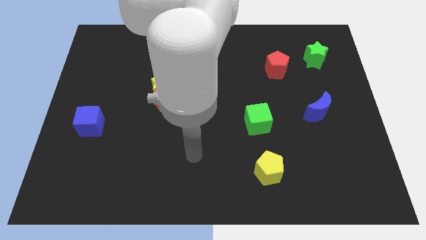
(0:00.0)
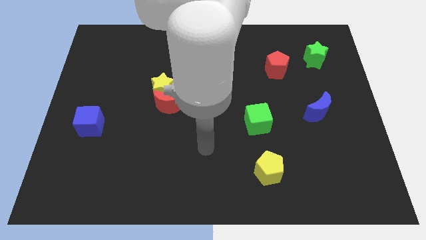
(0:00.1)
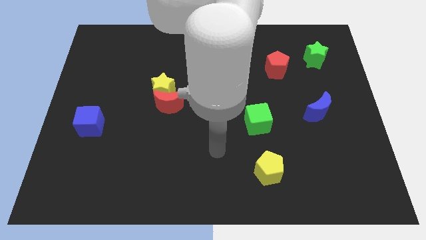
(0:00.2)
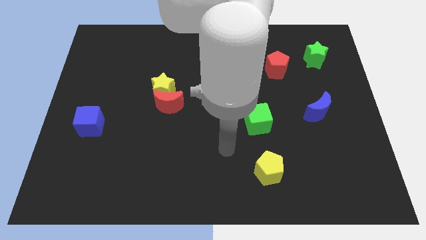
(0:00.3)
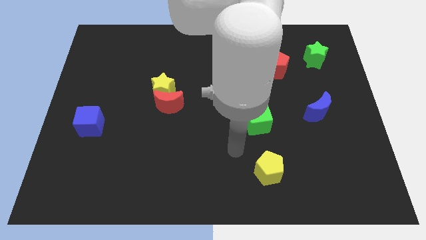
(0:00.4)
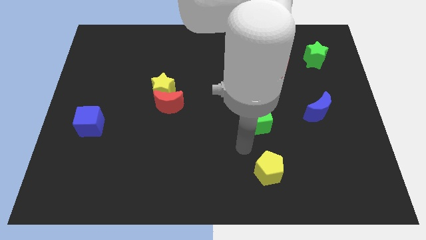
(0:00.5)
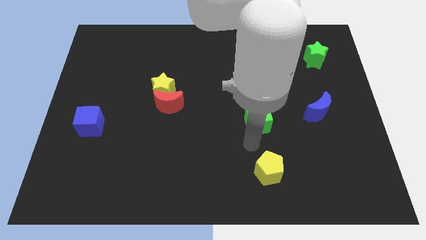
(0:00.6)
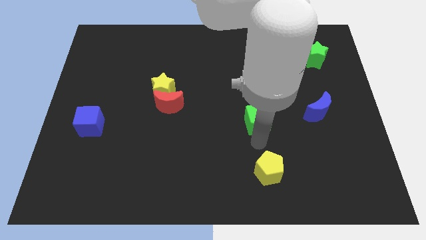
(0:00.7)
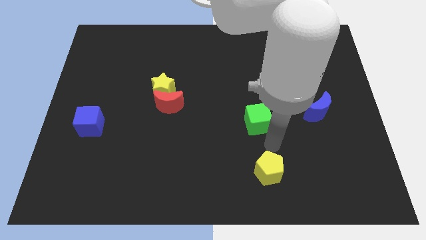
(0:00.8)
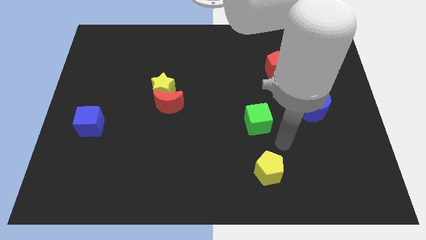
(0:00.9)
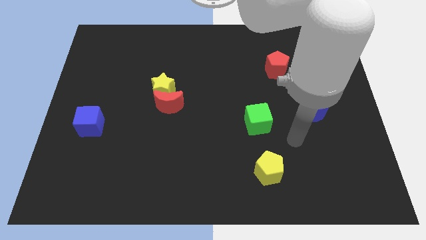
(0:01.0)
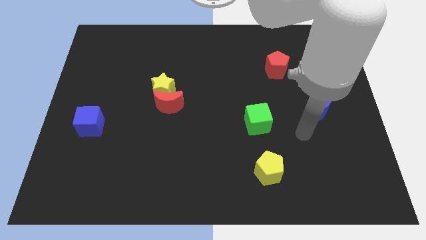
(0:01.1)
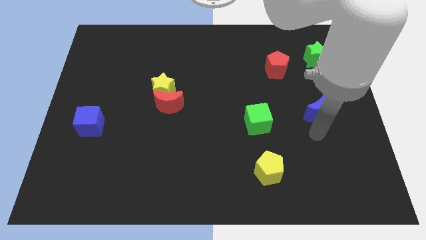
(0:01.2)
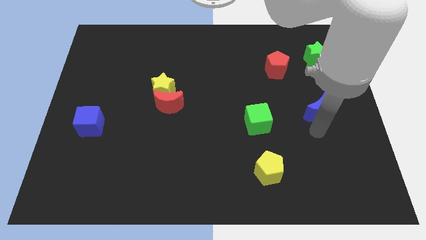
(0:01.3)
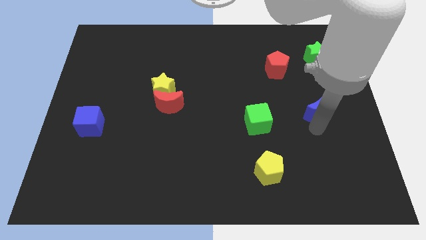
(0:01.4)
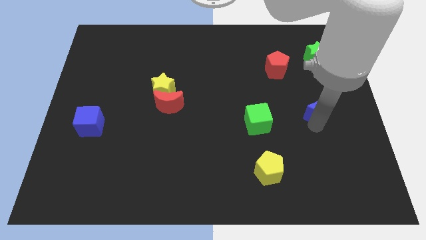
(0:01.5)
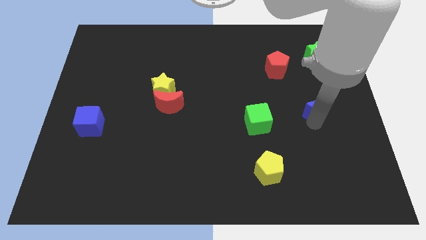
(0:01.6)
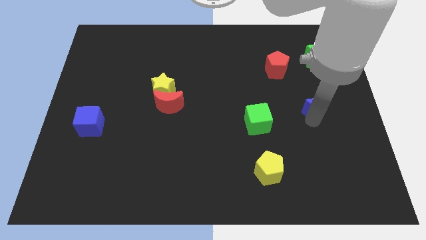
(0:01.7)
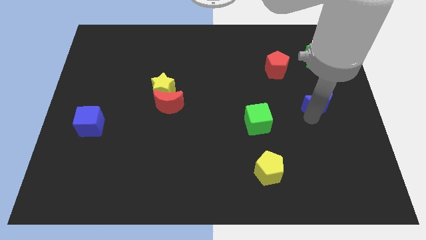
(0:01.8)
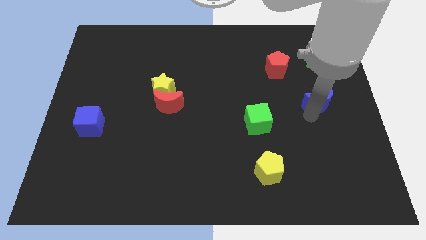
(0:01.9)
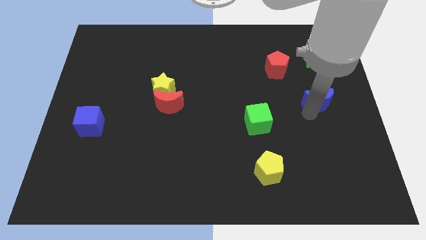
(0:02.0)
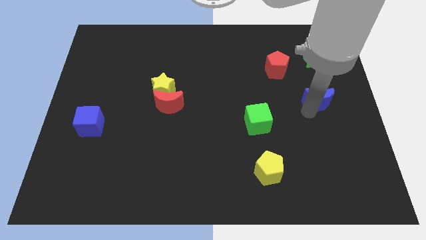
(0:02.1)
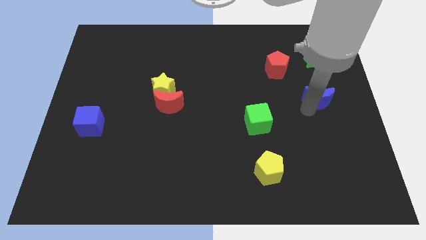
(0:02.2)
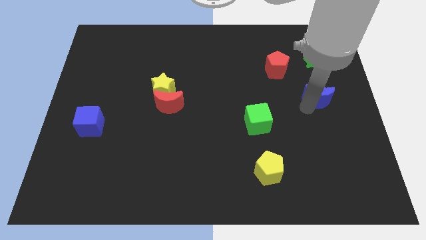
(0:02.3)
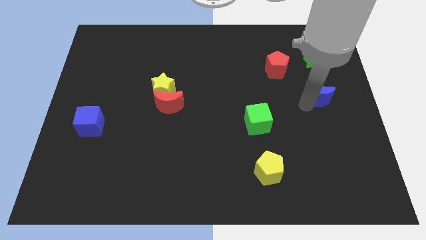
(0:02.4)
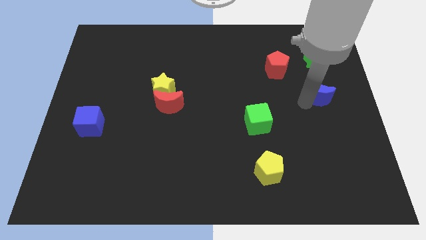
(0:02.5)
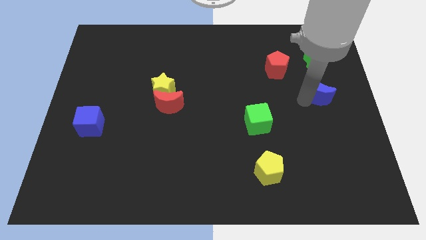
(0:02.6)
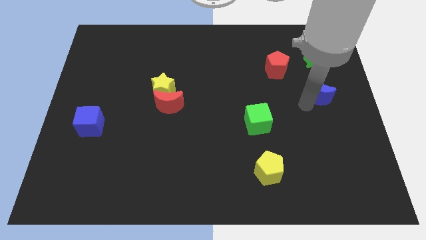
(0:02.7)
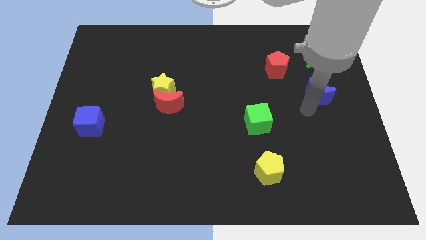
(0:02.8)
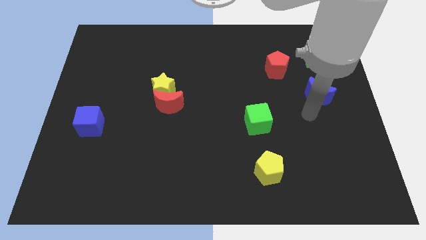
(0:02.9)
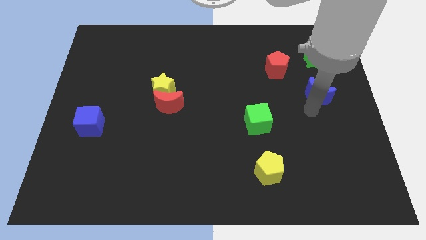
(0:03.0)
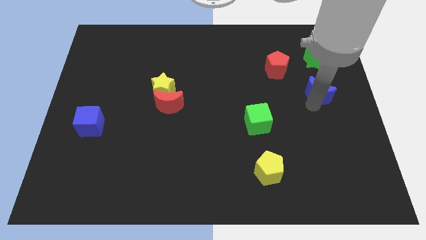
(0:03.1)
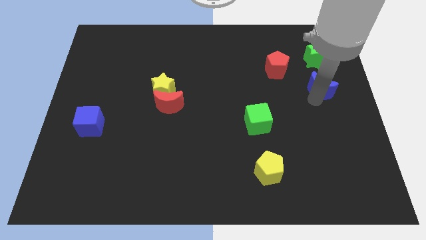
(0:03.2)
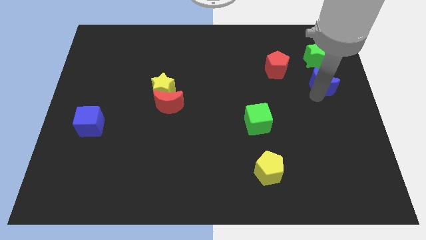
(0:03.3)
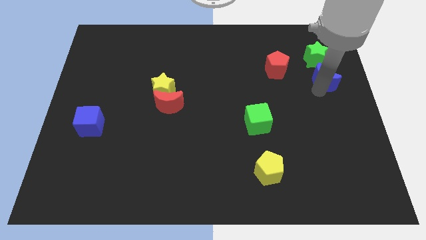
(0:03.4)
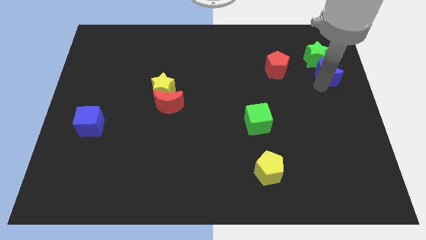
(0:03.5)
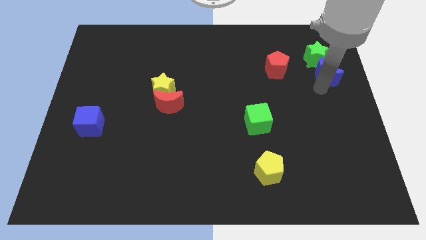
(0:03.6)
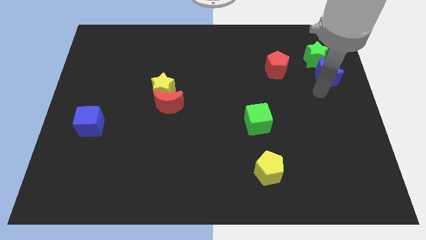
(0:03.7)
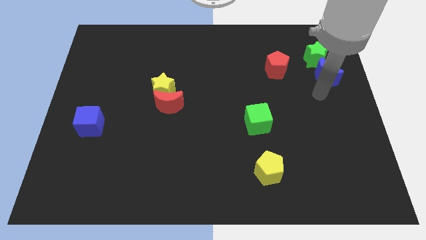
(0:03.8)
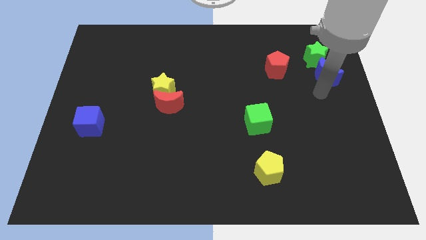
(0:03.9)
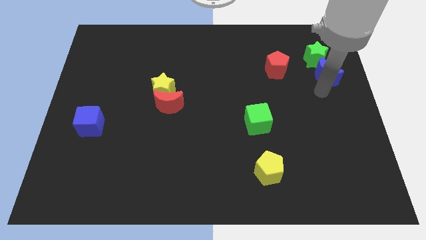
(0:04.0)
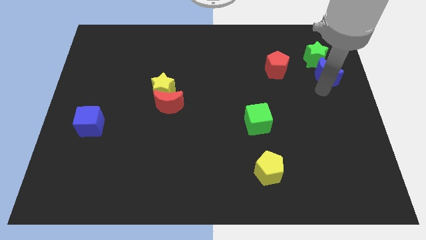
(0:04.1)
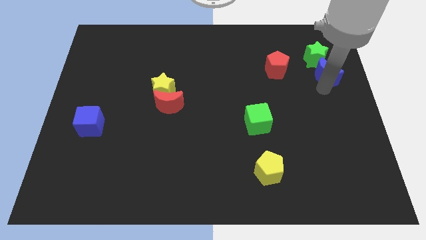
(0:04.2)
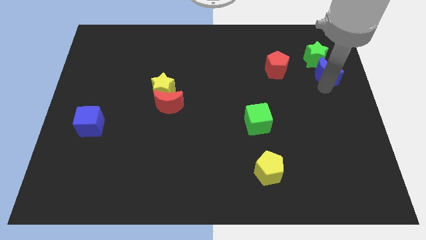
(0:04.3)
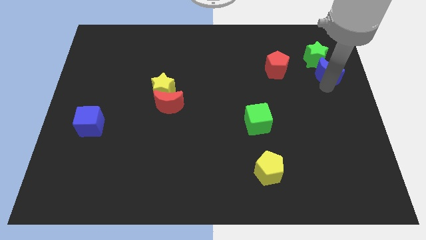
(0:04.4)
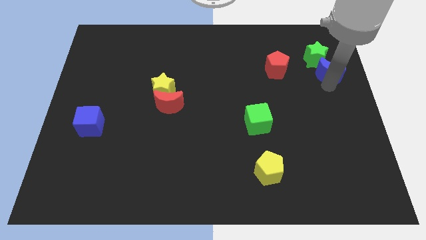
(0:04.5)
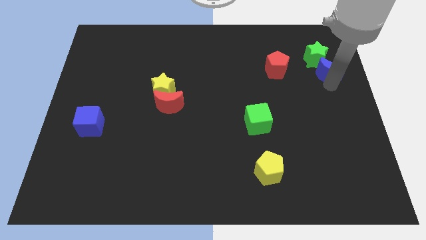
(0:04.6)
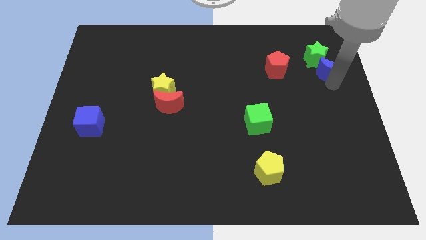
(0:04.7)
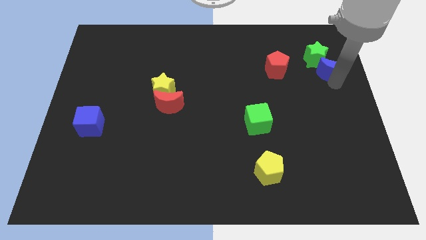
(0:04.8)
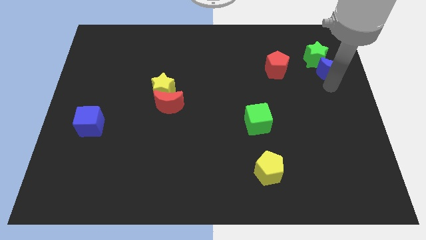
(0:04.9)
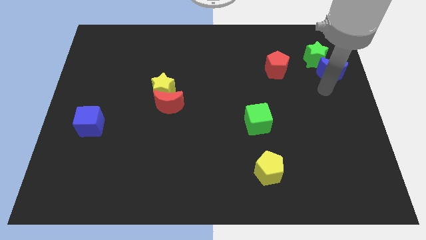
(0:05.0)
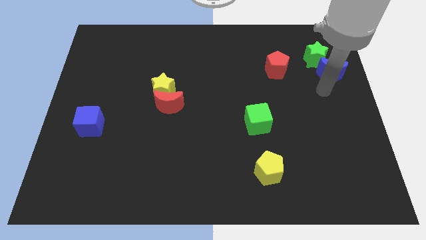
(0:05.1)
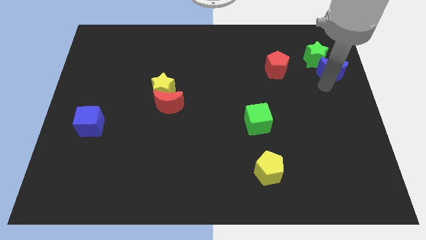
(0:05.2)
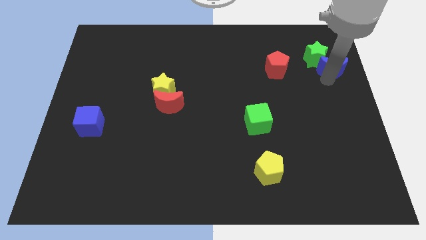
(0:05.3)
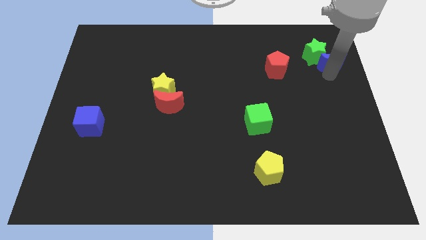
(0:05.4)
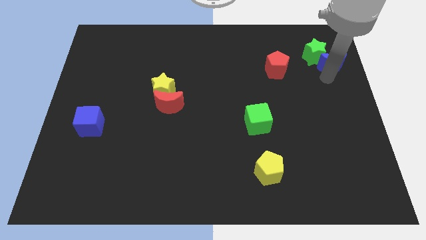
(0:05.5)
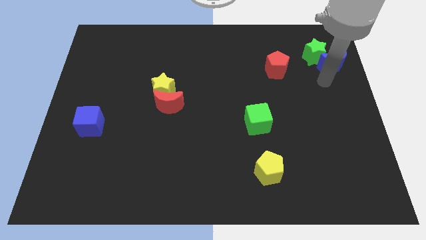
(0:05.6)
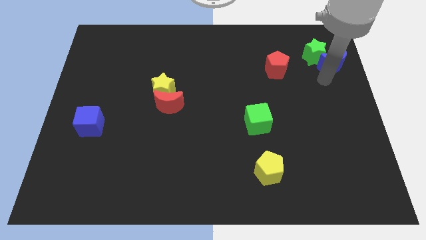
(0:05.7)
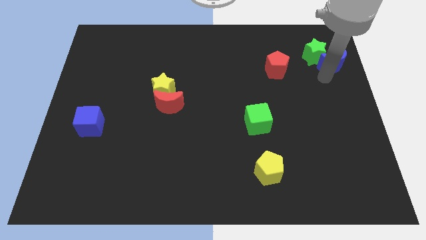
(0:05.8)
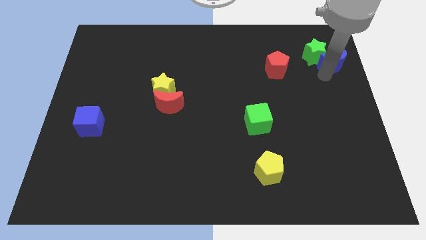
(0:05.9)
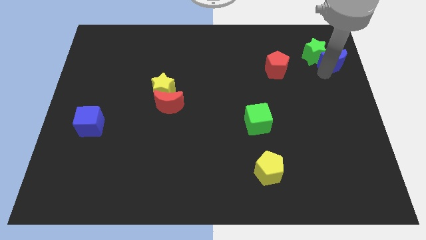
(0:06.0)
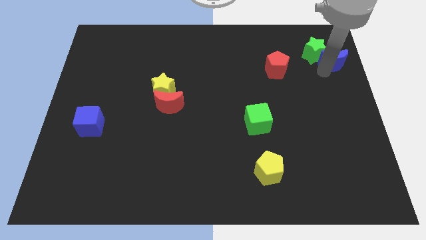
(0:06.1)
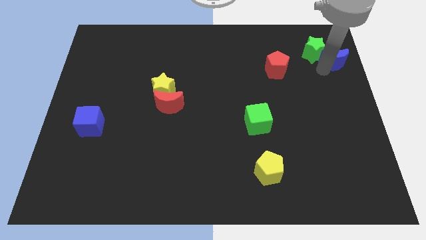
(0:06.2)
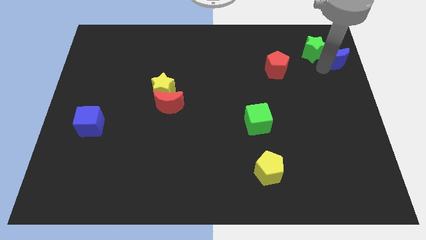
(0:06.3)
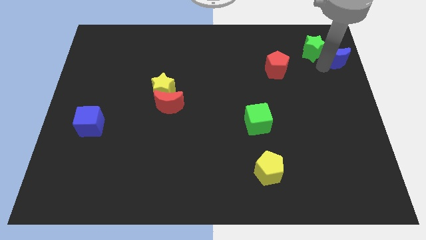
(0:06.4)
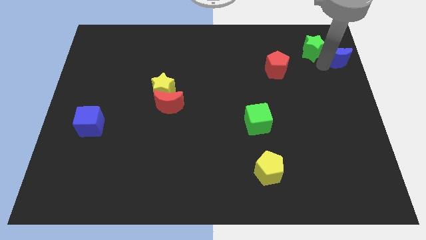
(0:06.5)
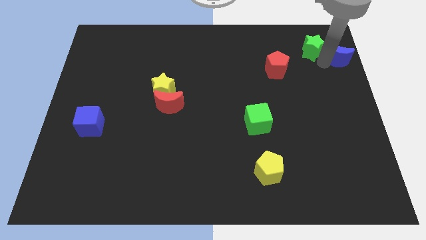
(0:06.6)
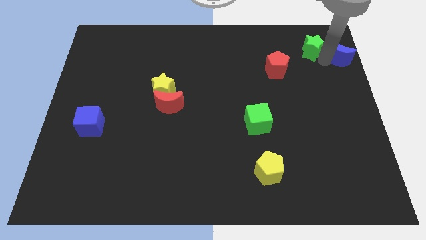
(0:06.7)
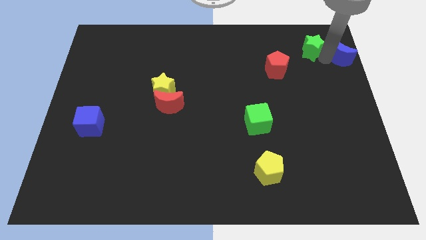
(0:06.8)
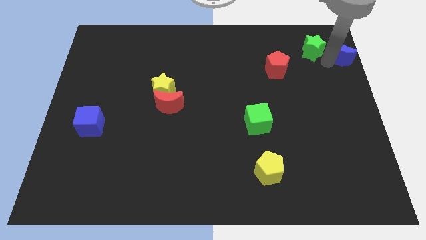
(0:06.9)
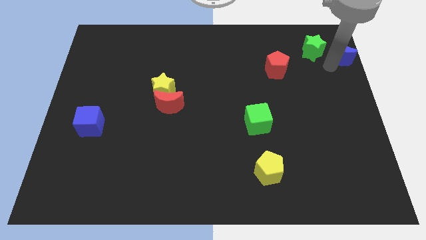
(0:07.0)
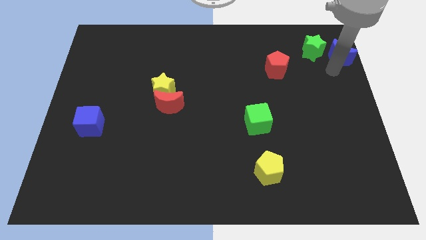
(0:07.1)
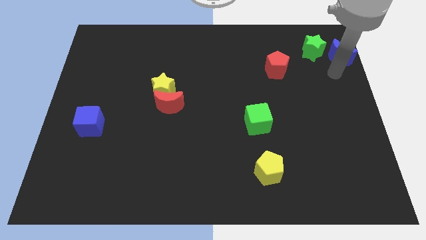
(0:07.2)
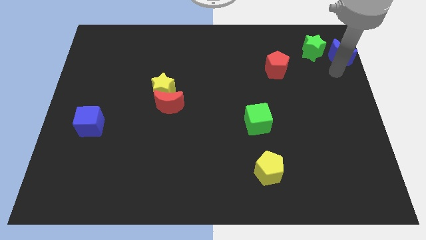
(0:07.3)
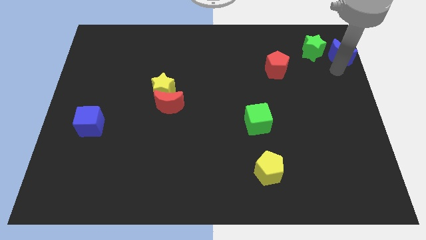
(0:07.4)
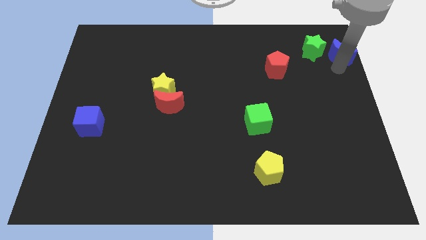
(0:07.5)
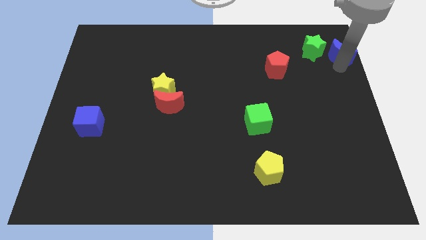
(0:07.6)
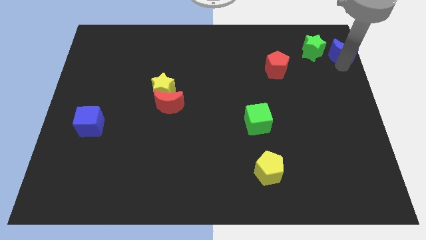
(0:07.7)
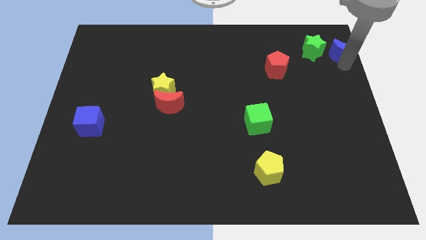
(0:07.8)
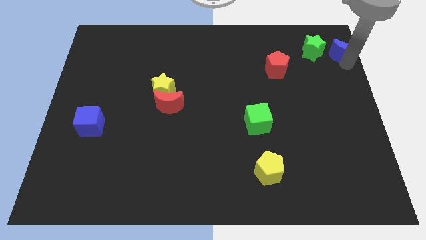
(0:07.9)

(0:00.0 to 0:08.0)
slide the blue moon to the upper right corner
